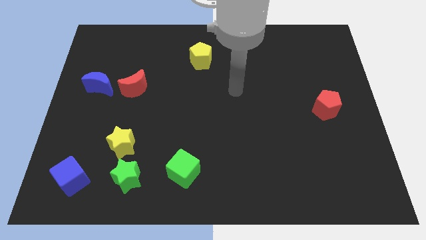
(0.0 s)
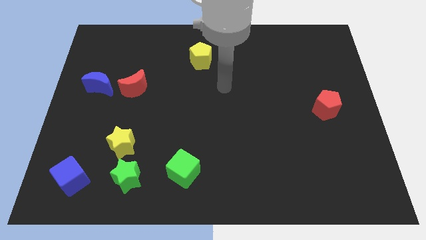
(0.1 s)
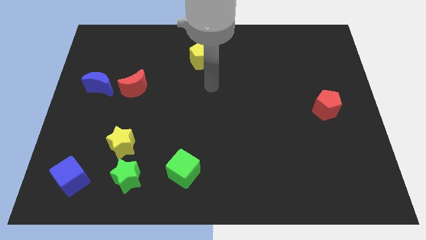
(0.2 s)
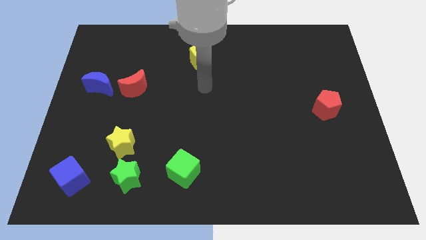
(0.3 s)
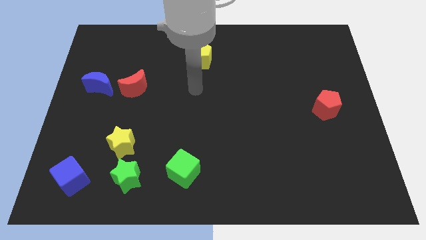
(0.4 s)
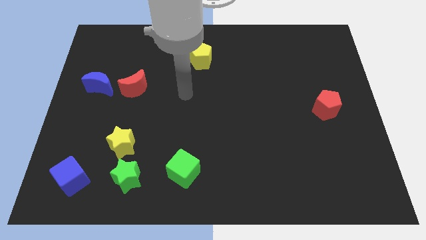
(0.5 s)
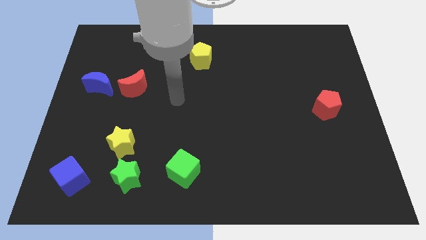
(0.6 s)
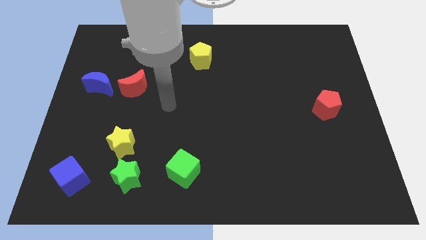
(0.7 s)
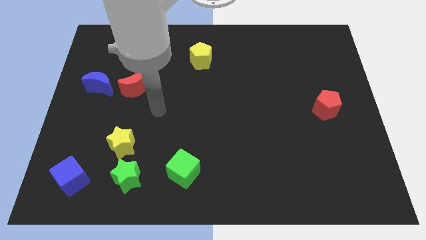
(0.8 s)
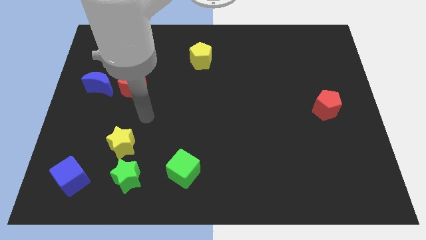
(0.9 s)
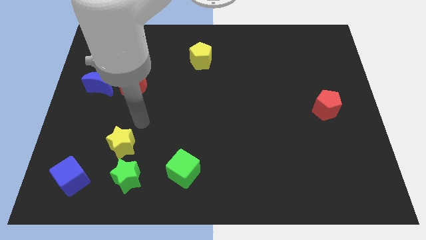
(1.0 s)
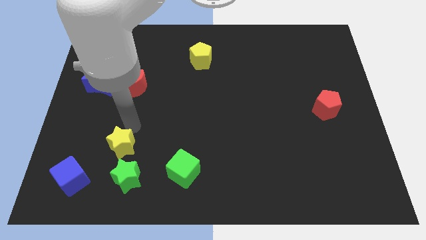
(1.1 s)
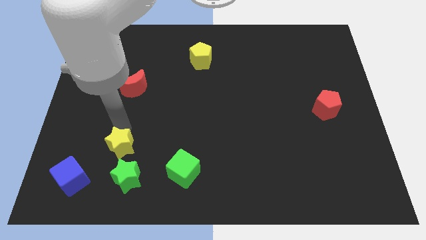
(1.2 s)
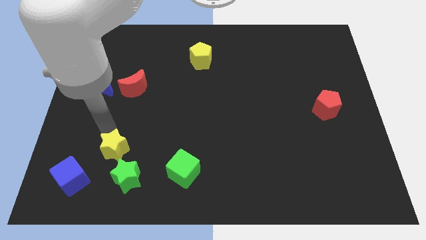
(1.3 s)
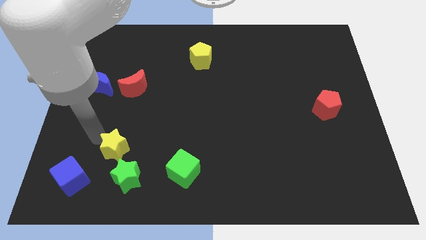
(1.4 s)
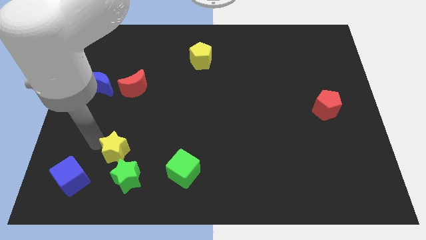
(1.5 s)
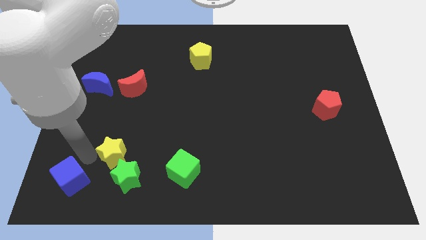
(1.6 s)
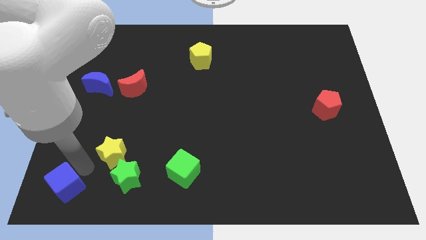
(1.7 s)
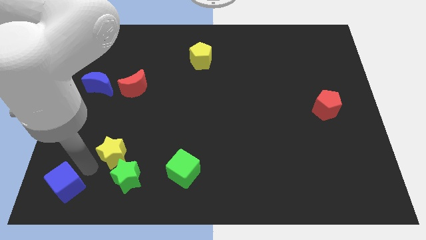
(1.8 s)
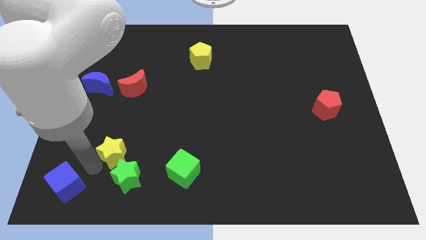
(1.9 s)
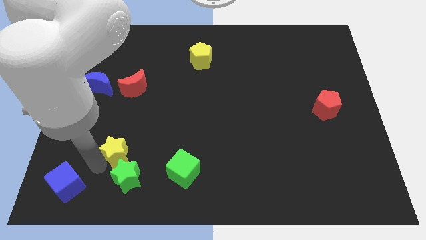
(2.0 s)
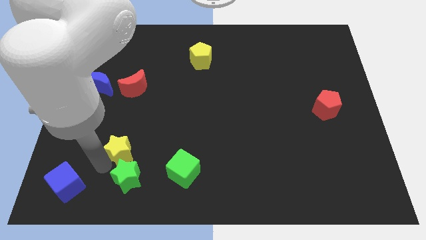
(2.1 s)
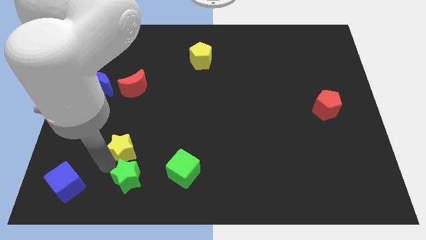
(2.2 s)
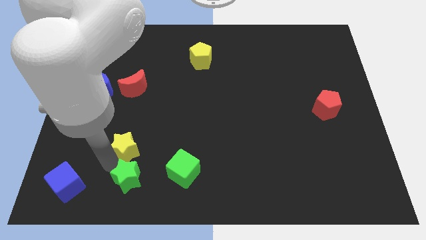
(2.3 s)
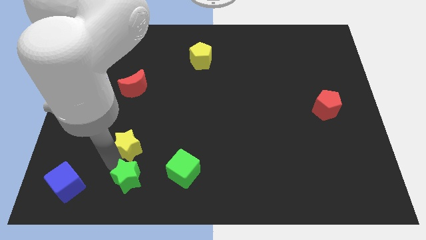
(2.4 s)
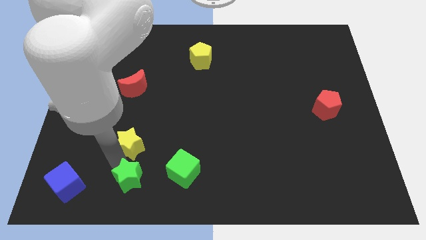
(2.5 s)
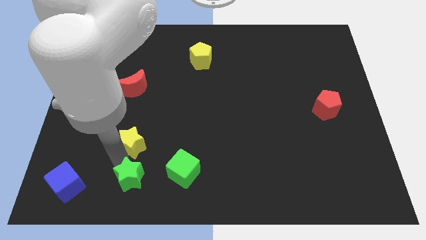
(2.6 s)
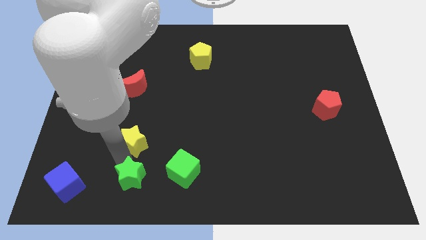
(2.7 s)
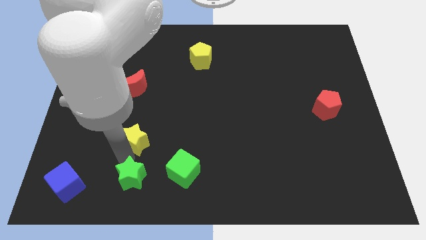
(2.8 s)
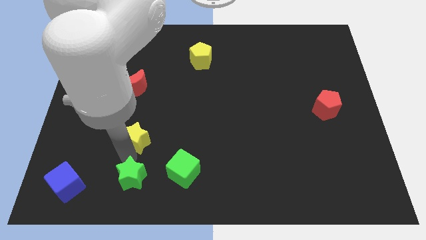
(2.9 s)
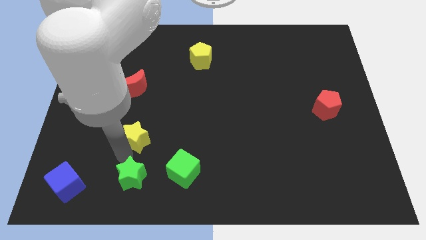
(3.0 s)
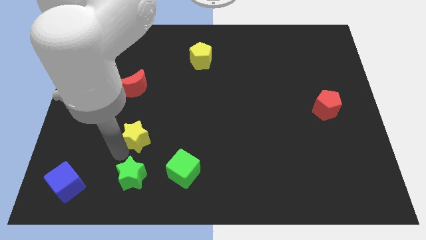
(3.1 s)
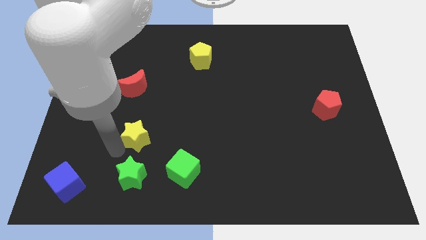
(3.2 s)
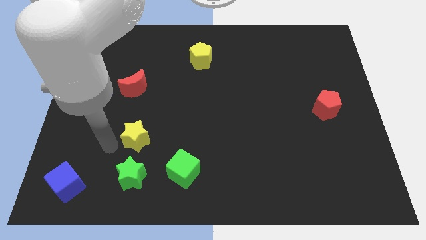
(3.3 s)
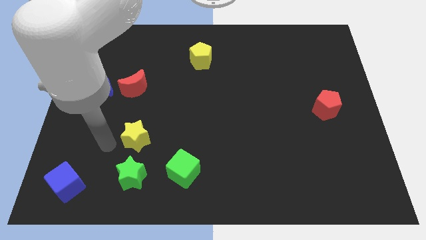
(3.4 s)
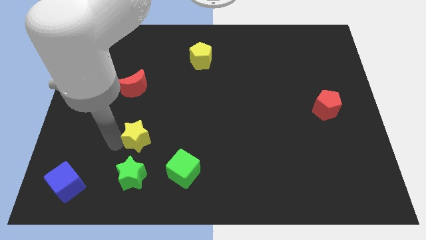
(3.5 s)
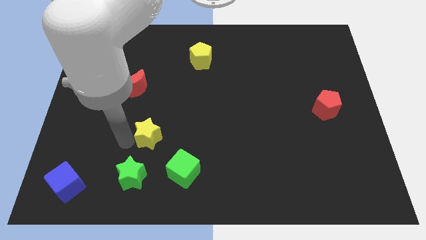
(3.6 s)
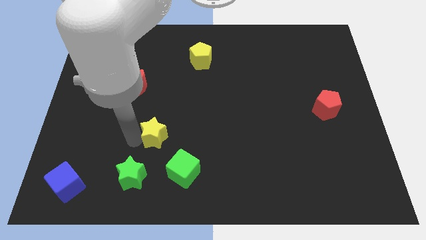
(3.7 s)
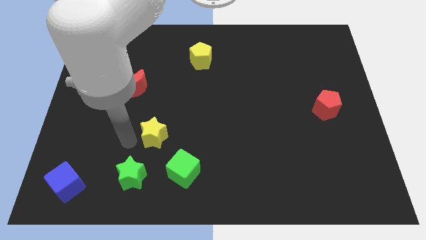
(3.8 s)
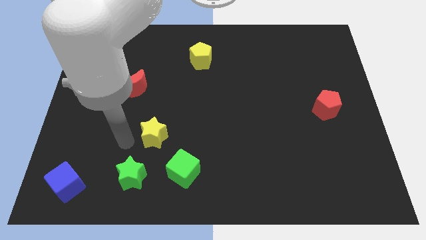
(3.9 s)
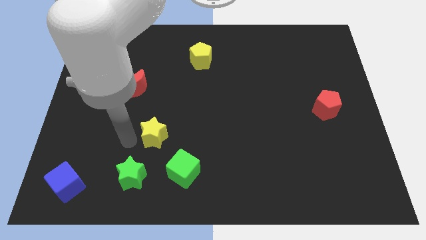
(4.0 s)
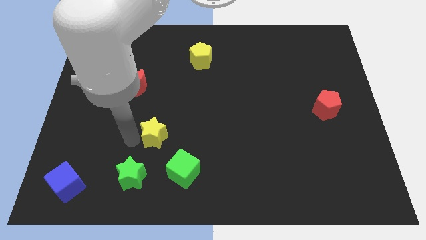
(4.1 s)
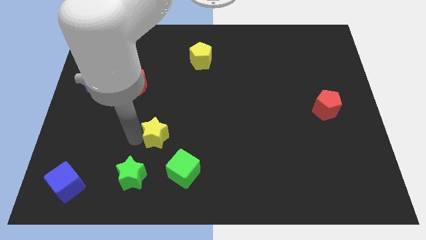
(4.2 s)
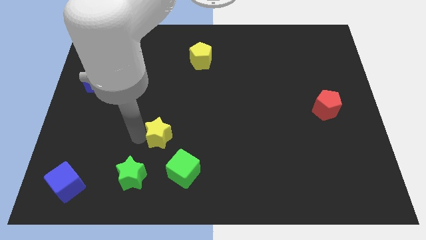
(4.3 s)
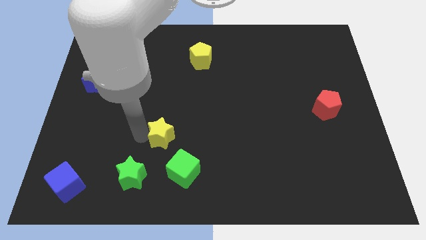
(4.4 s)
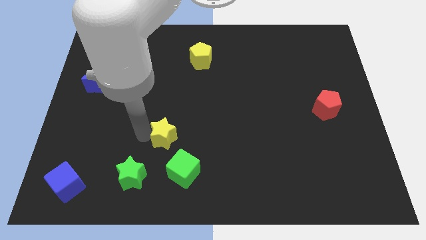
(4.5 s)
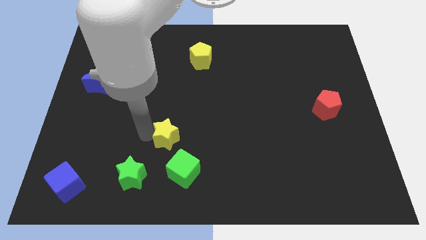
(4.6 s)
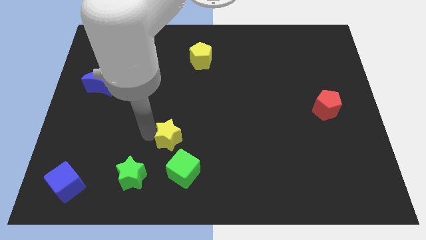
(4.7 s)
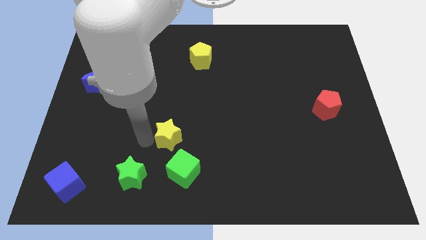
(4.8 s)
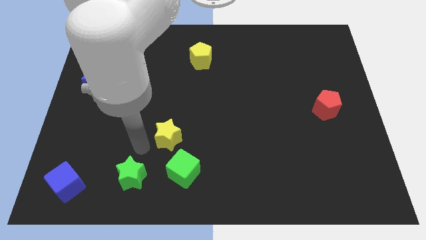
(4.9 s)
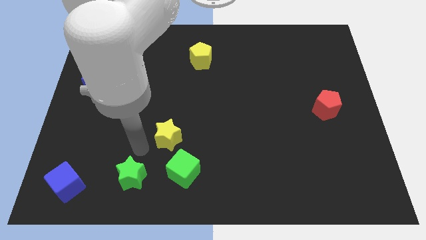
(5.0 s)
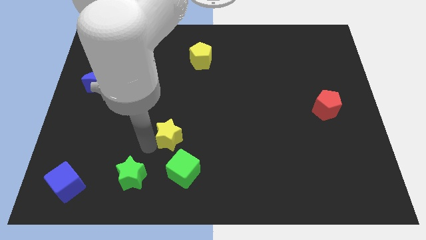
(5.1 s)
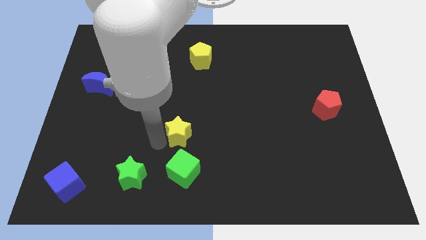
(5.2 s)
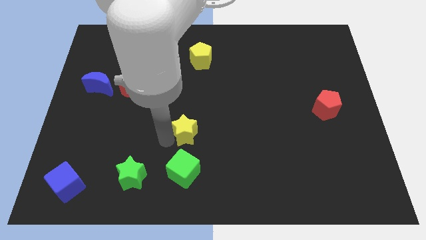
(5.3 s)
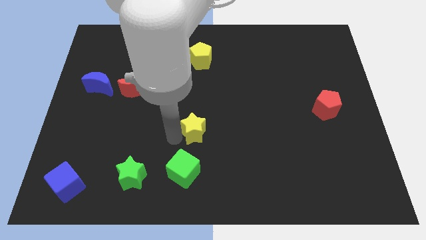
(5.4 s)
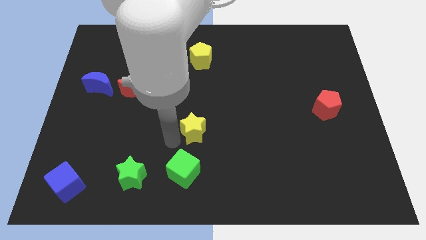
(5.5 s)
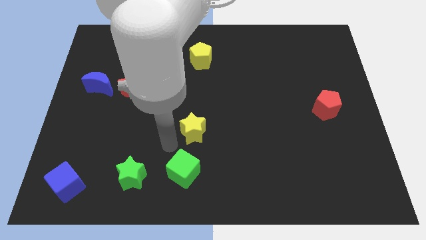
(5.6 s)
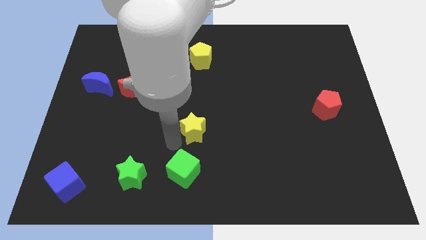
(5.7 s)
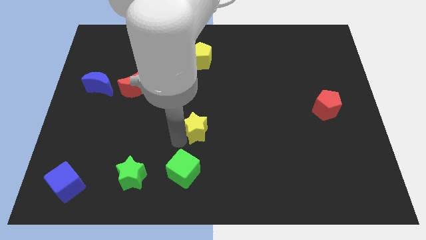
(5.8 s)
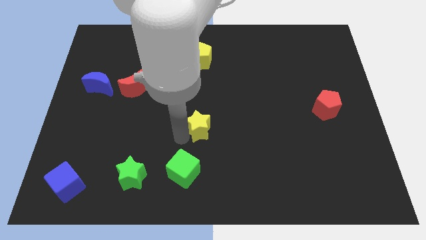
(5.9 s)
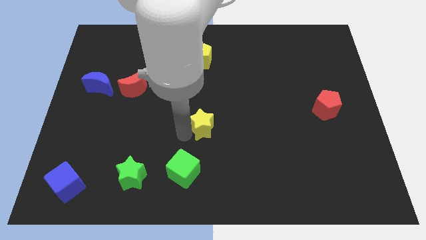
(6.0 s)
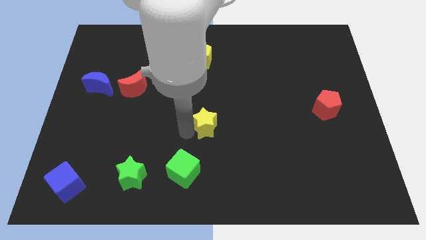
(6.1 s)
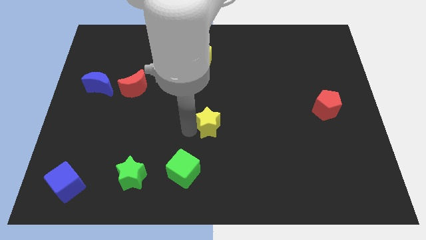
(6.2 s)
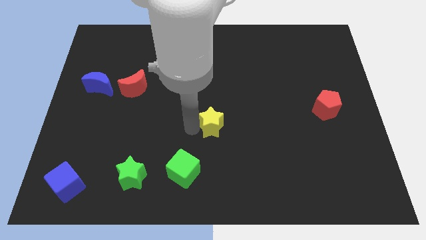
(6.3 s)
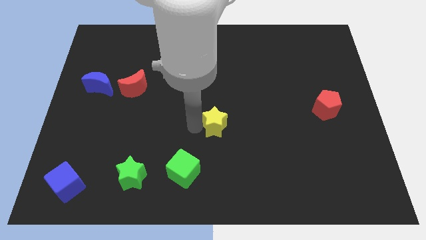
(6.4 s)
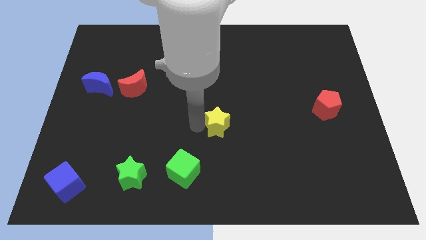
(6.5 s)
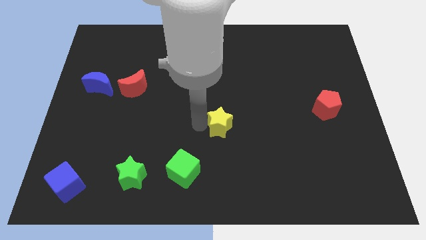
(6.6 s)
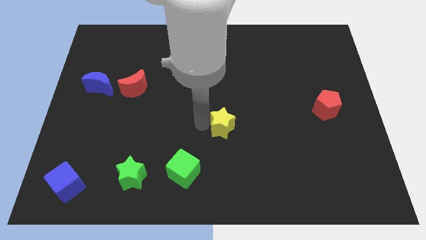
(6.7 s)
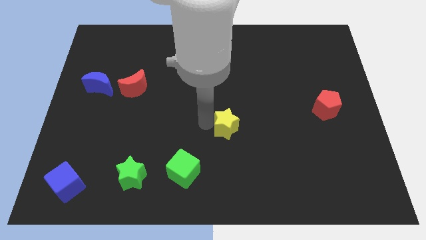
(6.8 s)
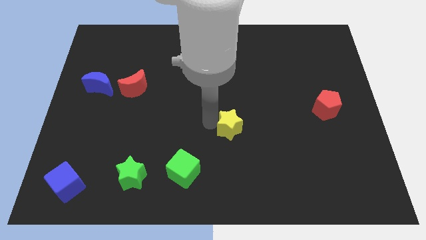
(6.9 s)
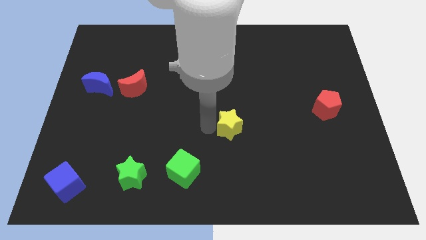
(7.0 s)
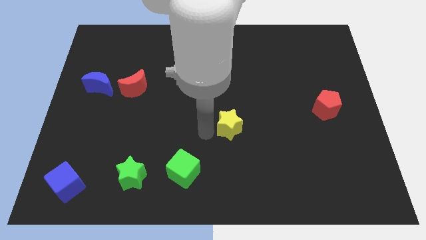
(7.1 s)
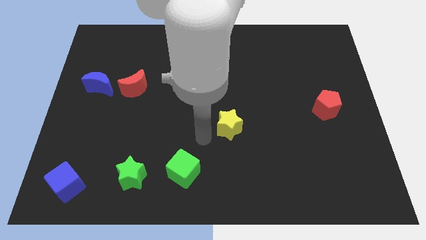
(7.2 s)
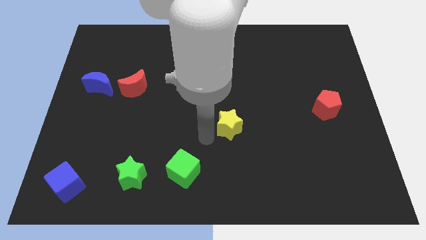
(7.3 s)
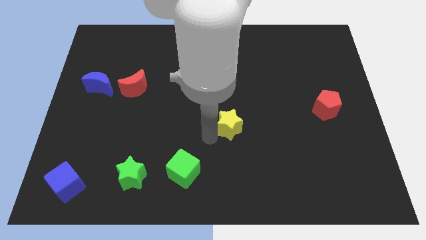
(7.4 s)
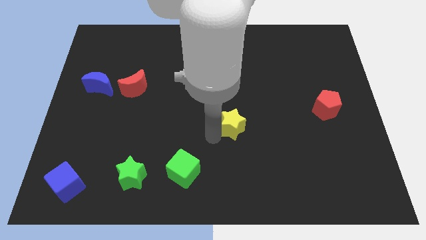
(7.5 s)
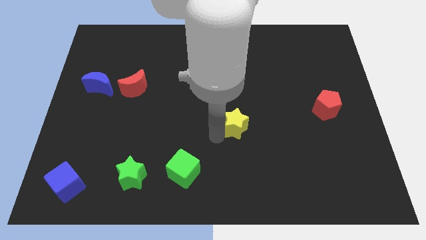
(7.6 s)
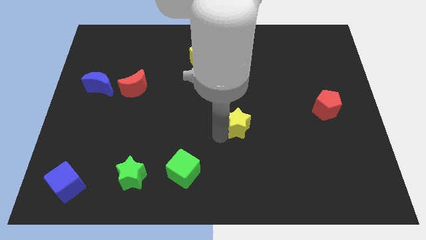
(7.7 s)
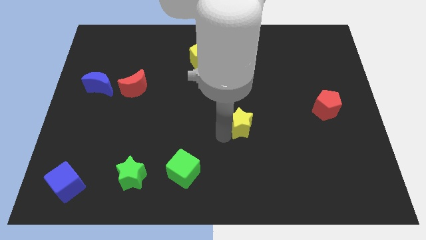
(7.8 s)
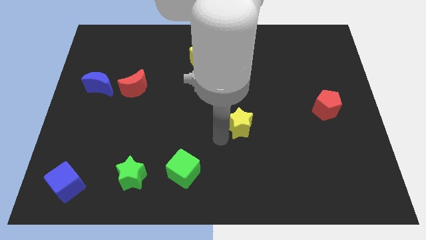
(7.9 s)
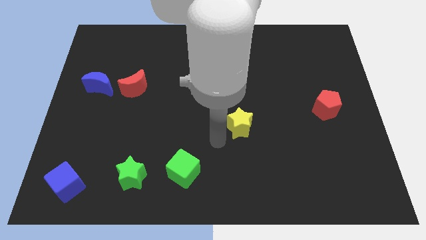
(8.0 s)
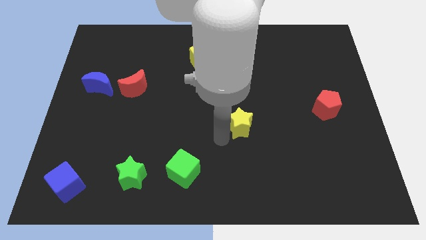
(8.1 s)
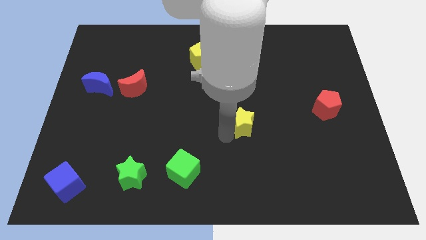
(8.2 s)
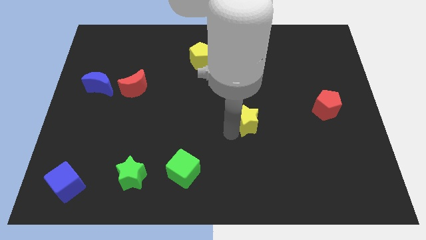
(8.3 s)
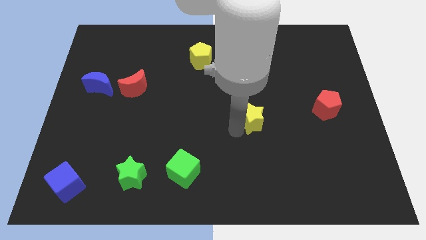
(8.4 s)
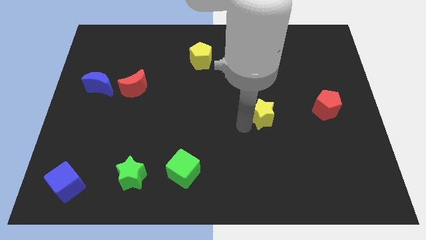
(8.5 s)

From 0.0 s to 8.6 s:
move the yellow star just left of the red pentagon

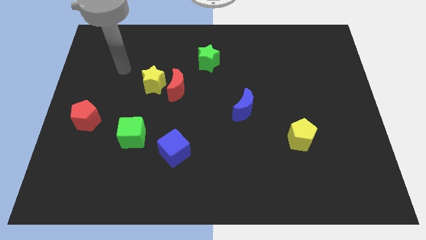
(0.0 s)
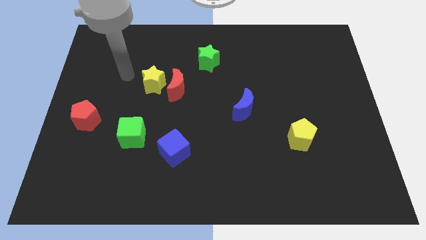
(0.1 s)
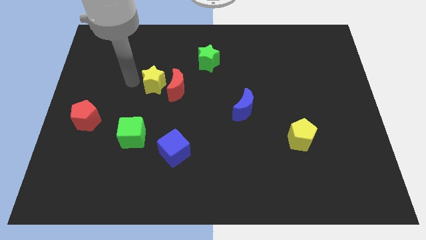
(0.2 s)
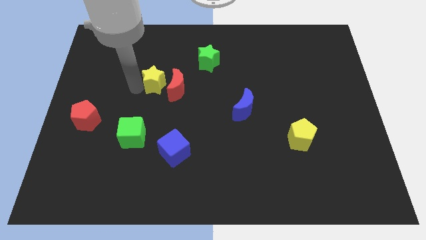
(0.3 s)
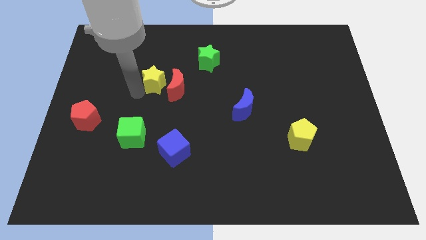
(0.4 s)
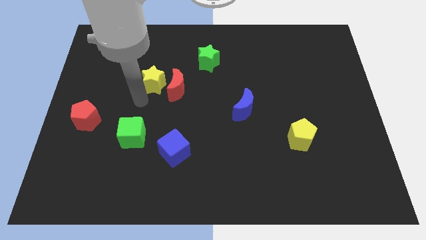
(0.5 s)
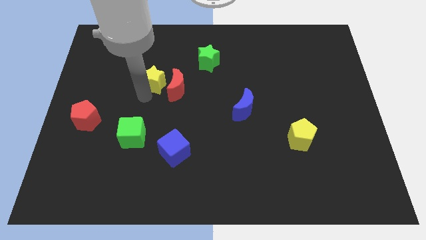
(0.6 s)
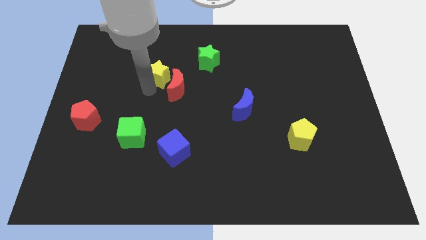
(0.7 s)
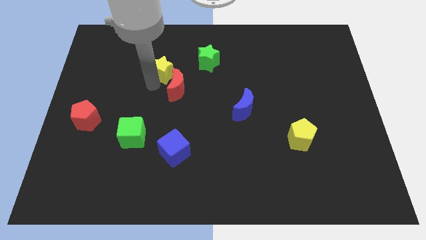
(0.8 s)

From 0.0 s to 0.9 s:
put the yellow star to the left of the green star
